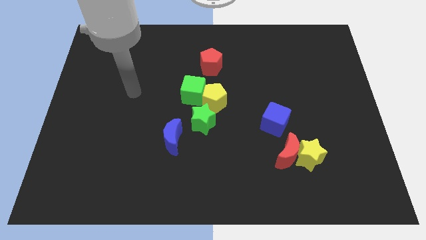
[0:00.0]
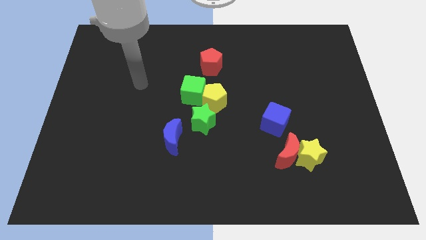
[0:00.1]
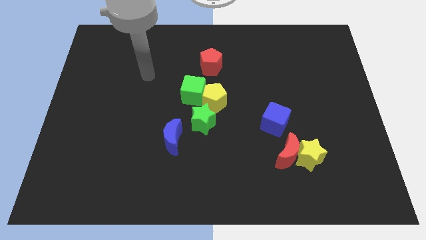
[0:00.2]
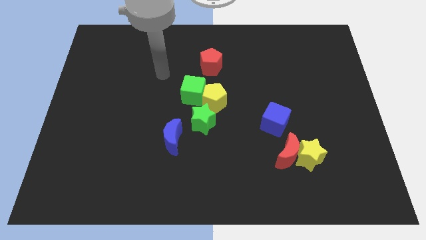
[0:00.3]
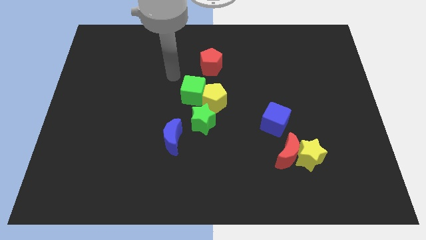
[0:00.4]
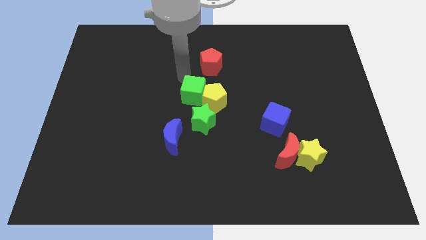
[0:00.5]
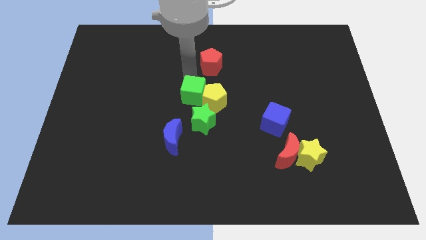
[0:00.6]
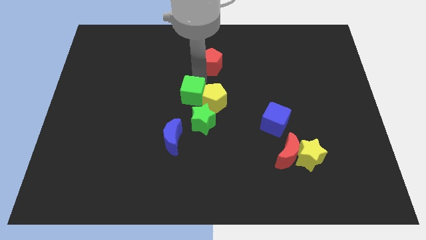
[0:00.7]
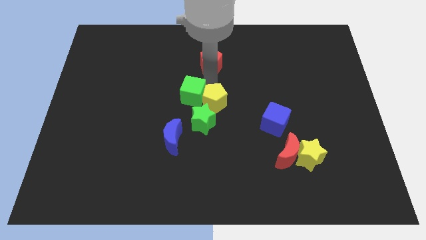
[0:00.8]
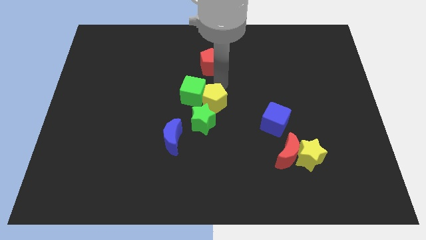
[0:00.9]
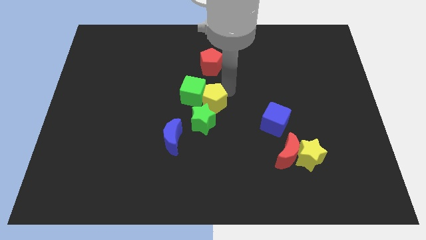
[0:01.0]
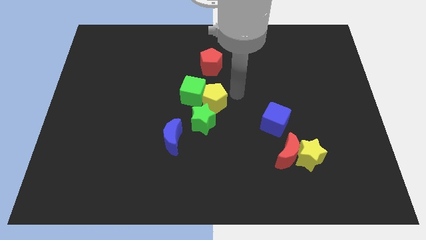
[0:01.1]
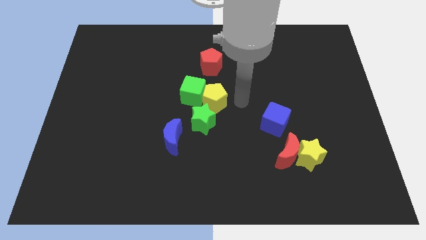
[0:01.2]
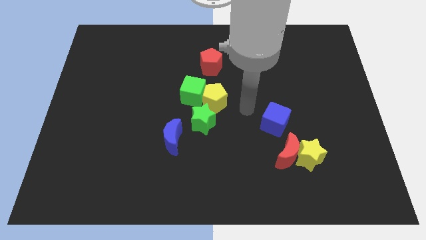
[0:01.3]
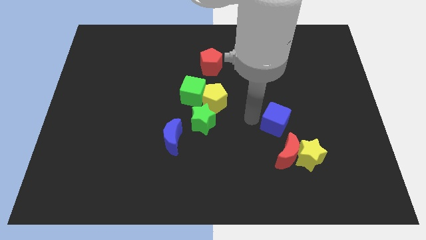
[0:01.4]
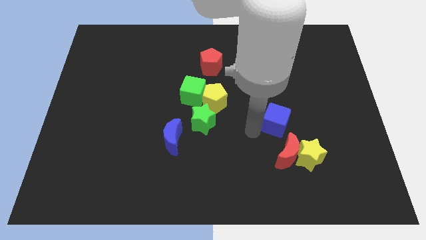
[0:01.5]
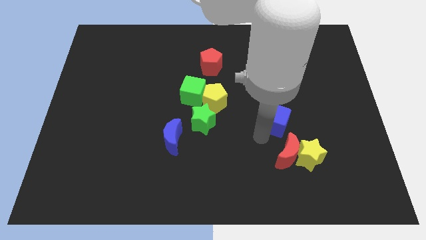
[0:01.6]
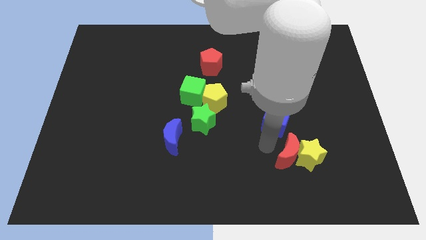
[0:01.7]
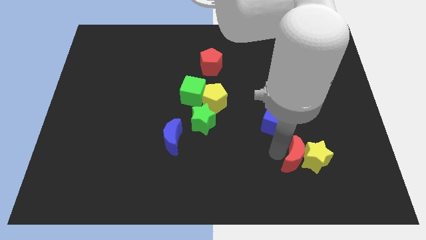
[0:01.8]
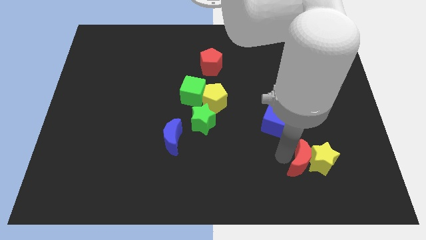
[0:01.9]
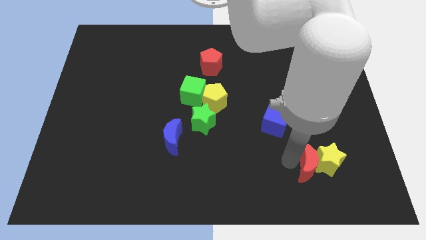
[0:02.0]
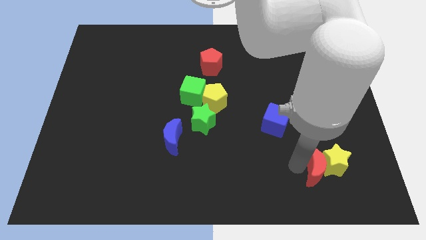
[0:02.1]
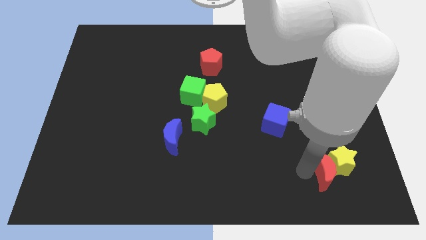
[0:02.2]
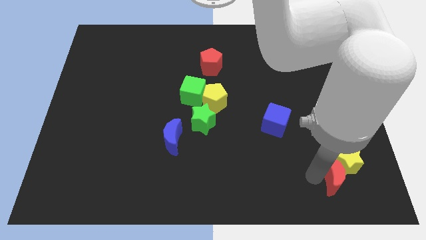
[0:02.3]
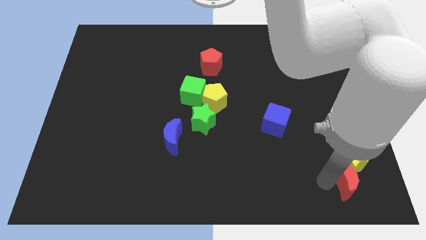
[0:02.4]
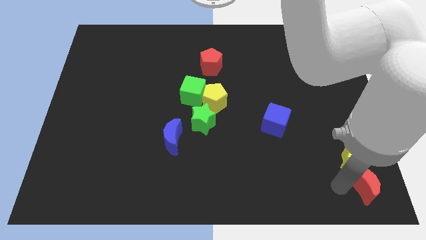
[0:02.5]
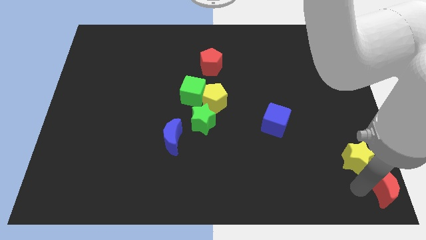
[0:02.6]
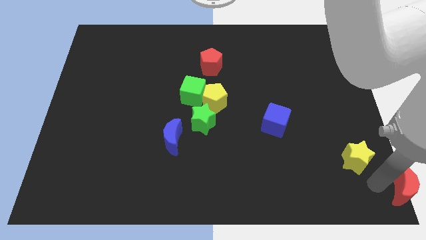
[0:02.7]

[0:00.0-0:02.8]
separate the yellow star from the red moon

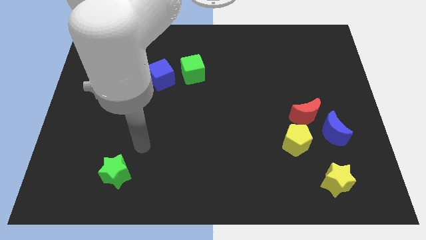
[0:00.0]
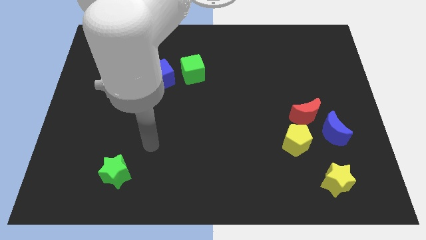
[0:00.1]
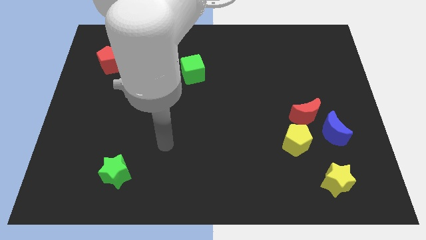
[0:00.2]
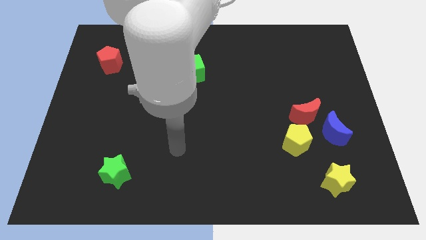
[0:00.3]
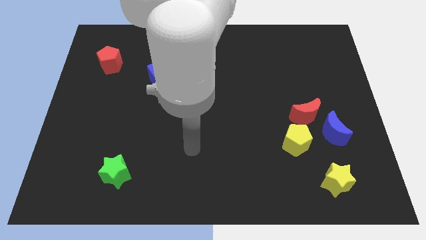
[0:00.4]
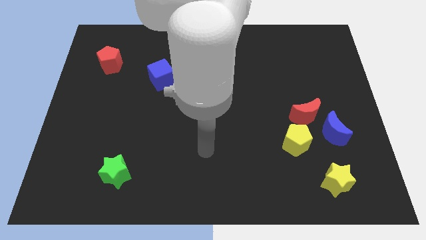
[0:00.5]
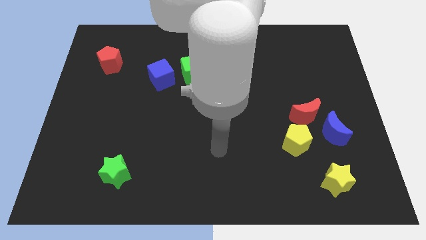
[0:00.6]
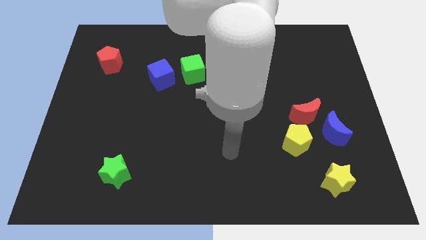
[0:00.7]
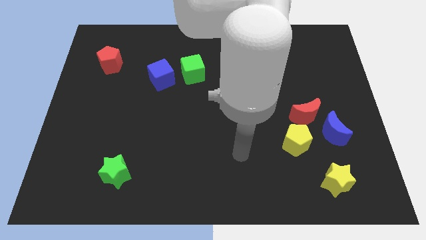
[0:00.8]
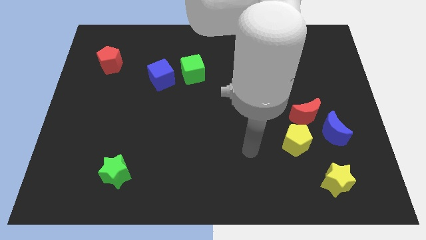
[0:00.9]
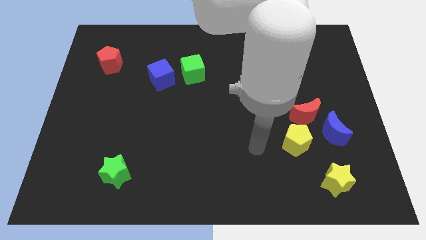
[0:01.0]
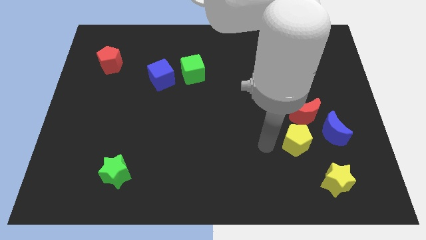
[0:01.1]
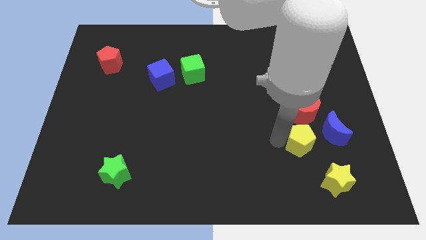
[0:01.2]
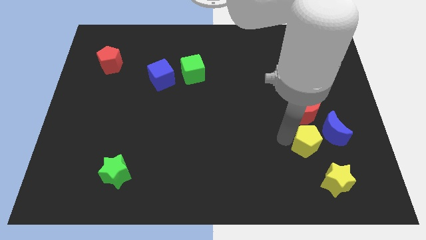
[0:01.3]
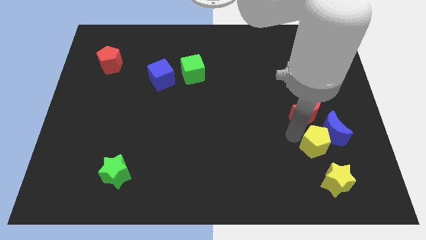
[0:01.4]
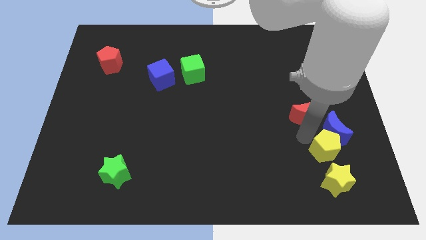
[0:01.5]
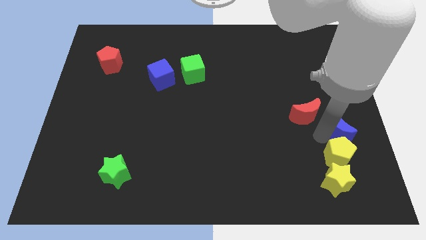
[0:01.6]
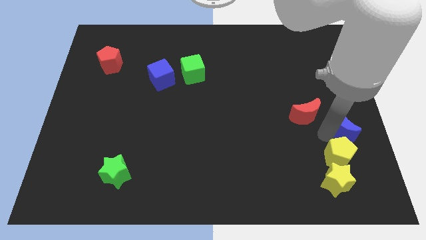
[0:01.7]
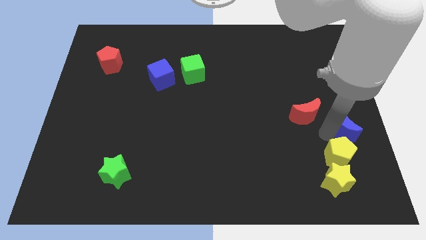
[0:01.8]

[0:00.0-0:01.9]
move the red moon away from the blue moon and yellow pentagon

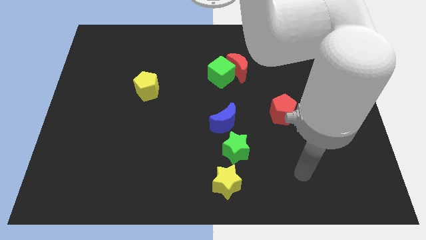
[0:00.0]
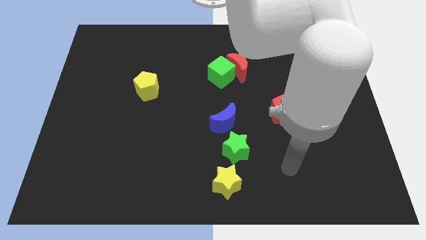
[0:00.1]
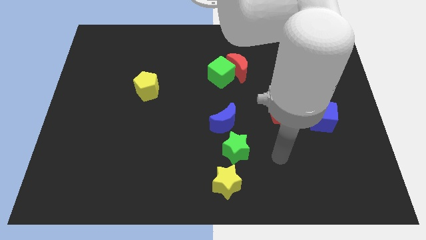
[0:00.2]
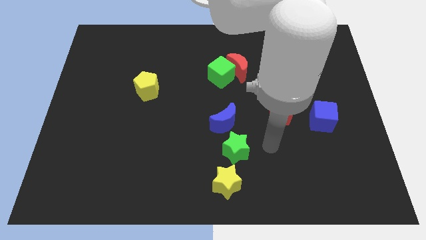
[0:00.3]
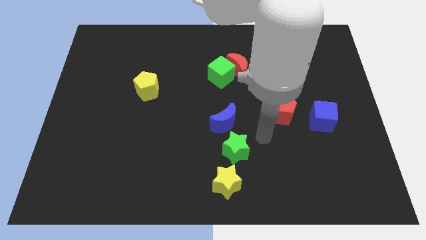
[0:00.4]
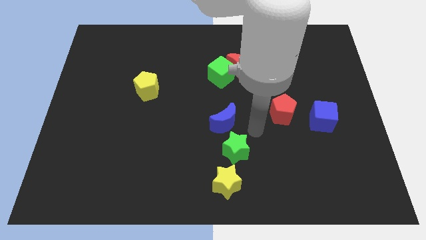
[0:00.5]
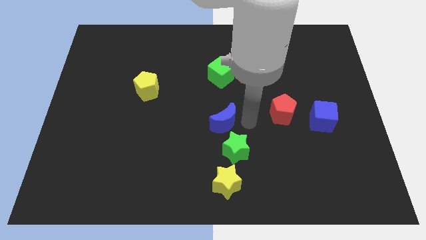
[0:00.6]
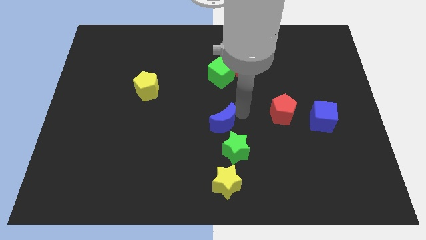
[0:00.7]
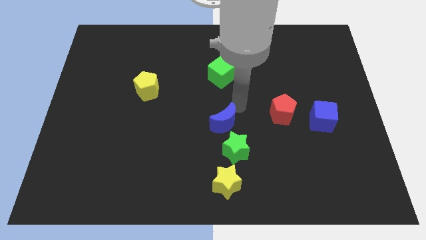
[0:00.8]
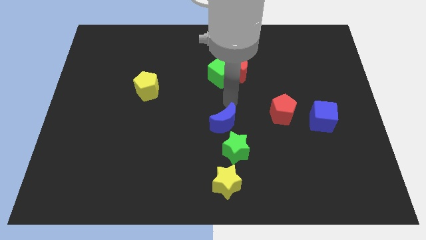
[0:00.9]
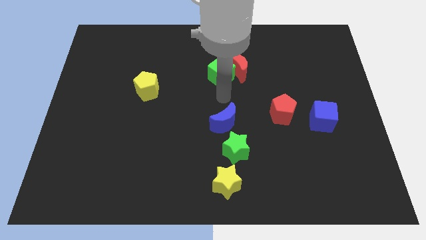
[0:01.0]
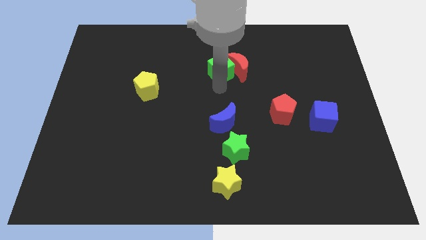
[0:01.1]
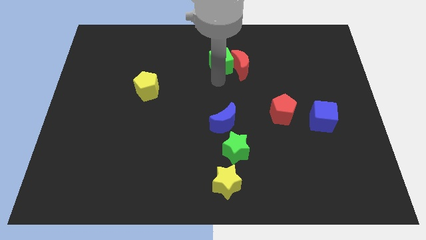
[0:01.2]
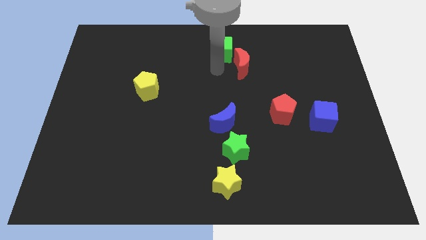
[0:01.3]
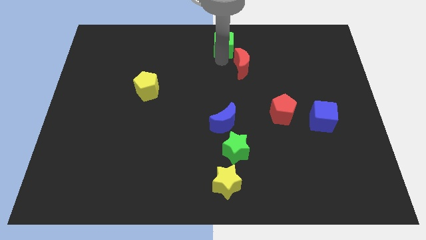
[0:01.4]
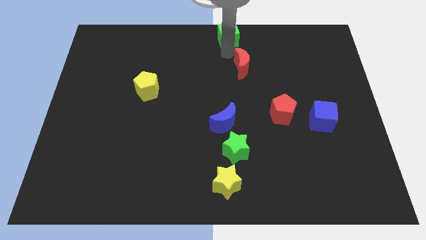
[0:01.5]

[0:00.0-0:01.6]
pull the red moon apart from the green cube

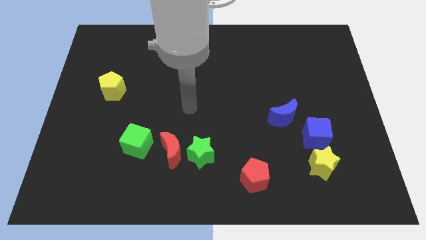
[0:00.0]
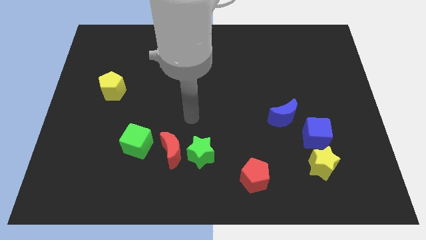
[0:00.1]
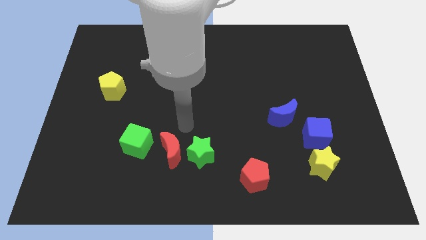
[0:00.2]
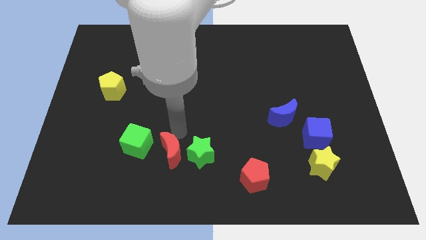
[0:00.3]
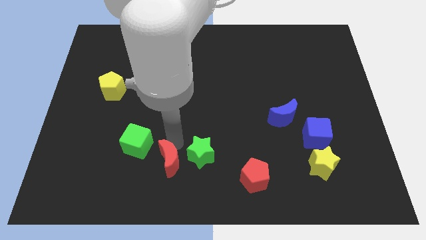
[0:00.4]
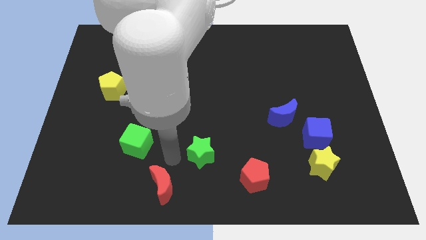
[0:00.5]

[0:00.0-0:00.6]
move the green star away from the red moon

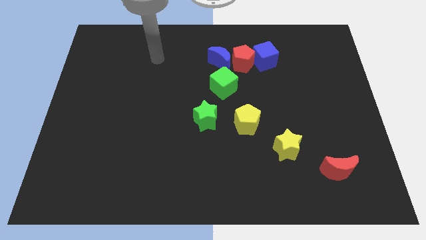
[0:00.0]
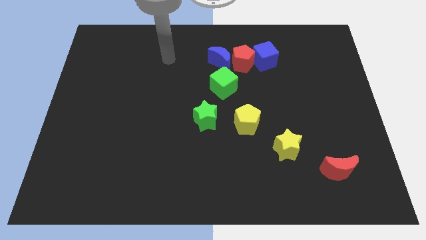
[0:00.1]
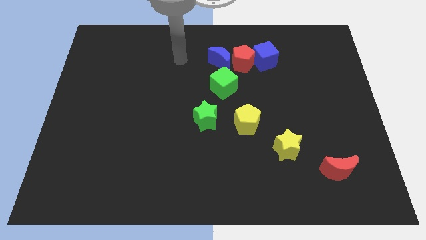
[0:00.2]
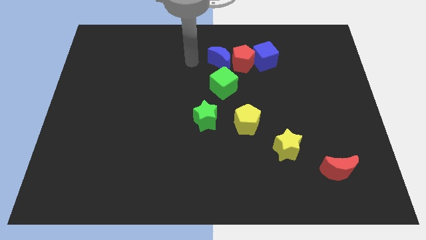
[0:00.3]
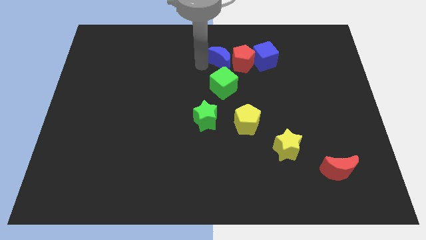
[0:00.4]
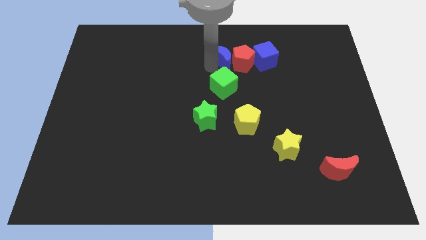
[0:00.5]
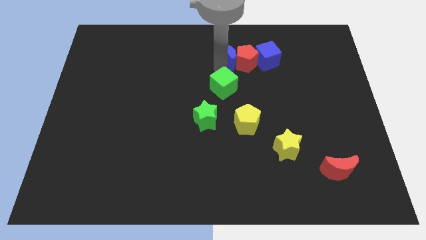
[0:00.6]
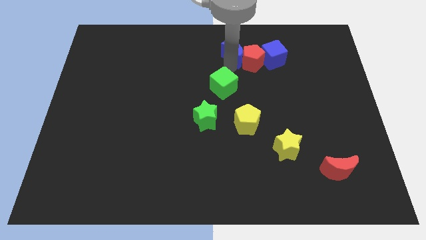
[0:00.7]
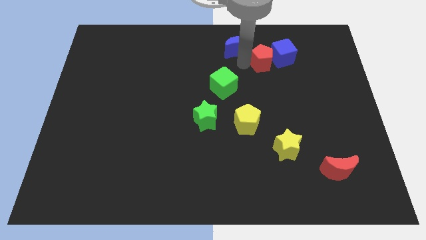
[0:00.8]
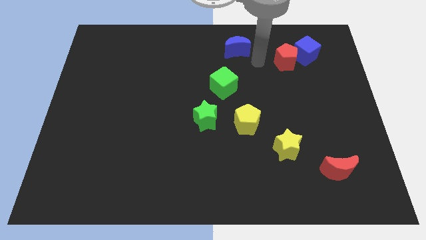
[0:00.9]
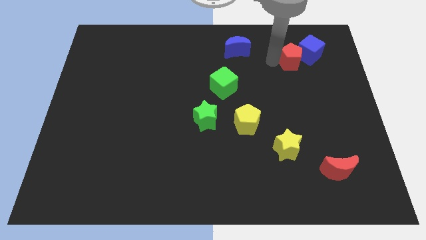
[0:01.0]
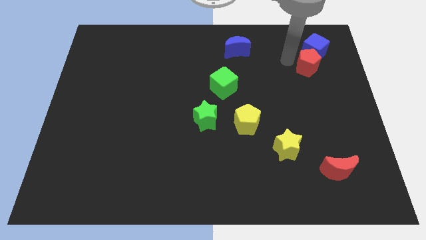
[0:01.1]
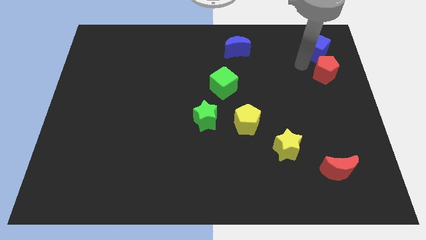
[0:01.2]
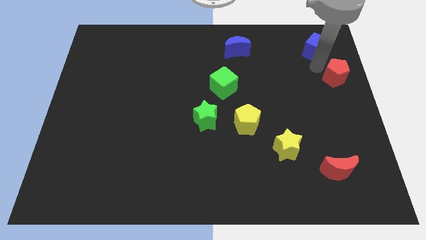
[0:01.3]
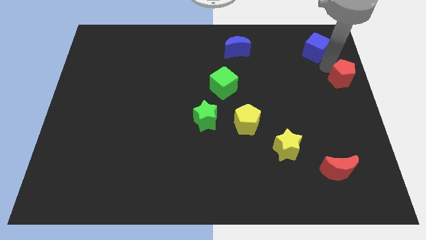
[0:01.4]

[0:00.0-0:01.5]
separate the blue cube from the red pentagon

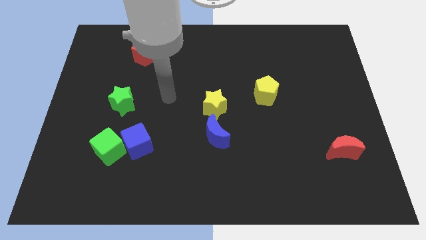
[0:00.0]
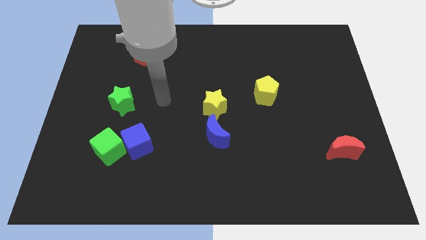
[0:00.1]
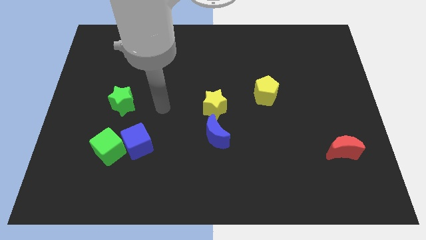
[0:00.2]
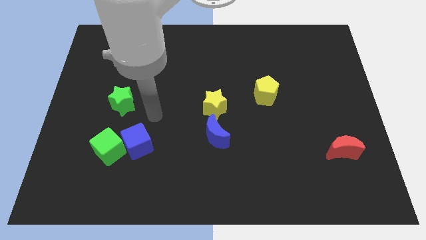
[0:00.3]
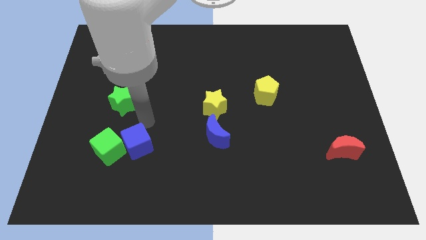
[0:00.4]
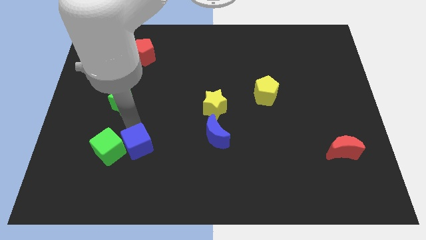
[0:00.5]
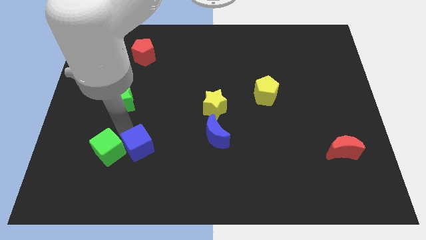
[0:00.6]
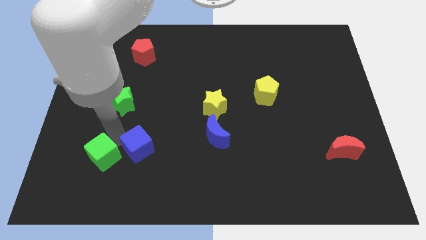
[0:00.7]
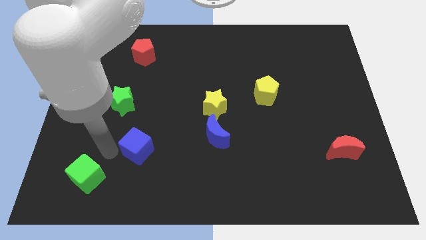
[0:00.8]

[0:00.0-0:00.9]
separate the blue cube from the green cube
